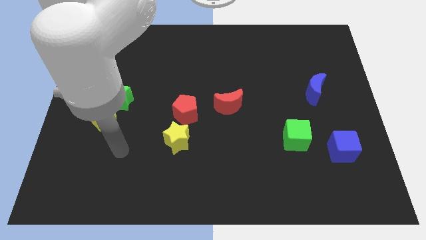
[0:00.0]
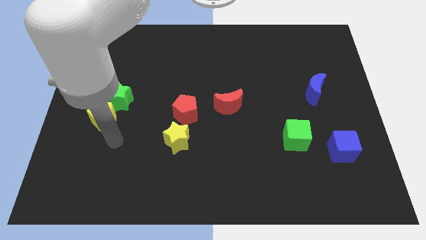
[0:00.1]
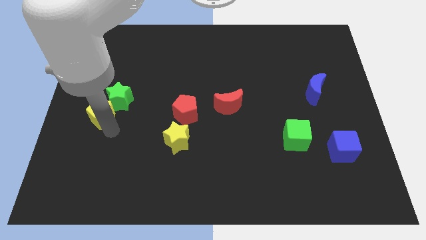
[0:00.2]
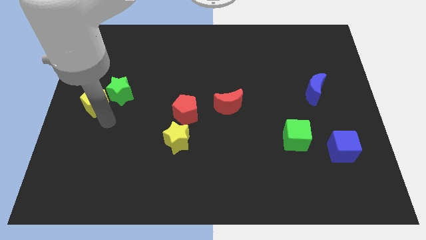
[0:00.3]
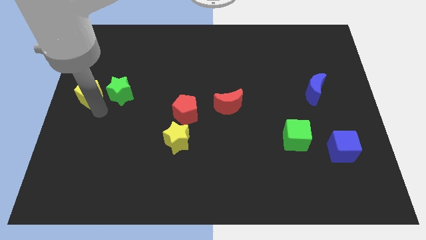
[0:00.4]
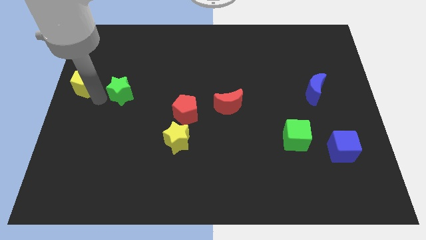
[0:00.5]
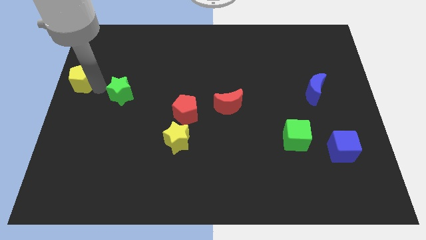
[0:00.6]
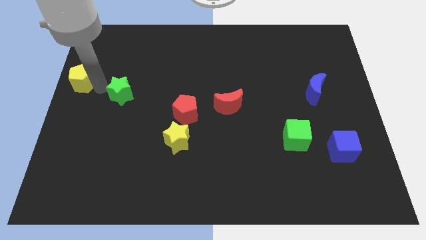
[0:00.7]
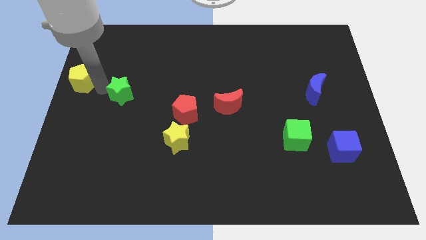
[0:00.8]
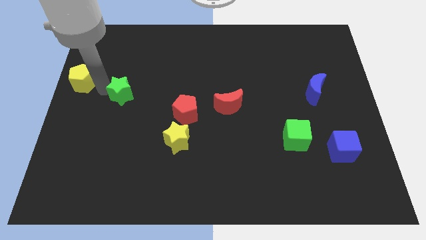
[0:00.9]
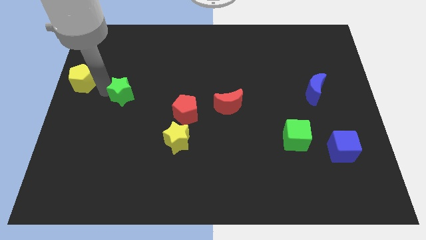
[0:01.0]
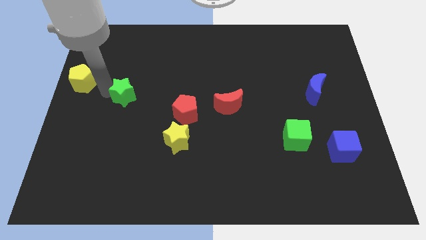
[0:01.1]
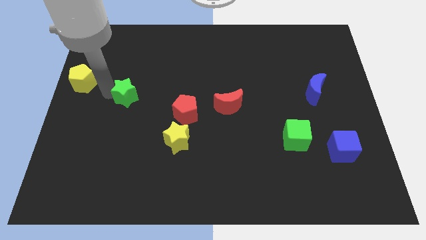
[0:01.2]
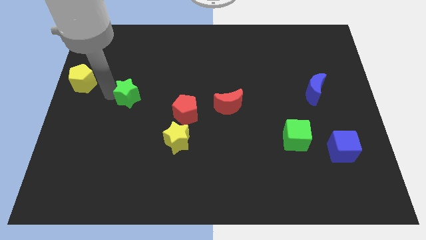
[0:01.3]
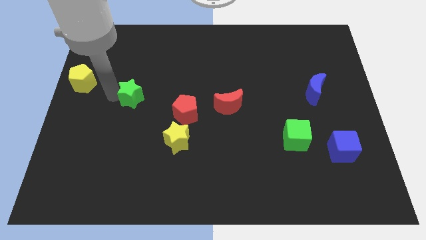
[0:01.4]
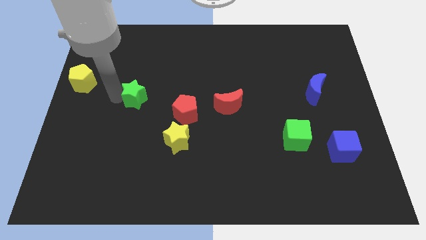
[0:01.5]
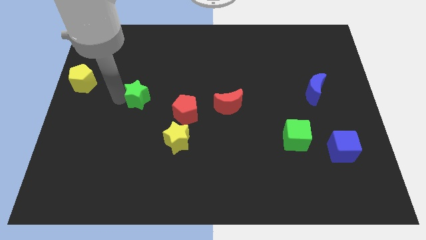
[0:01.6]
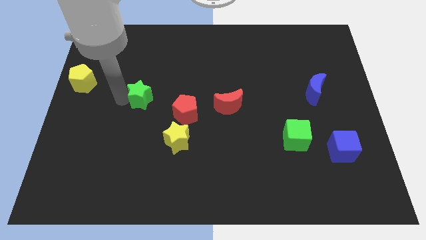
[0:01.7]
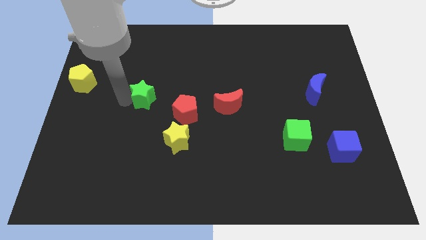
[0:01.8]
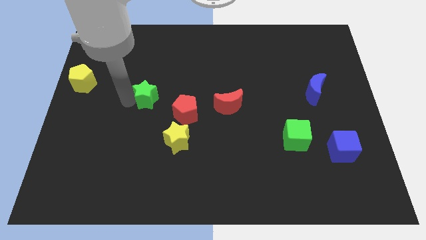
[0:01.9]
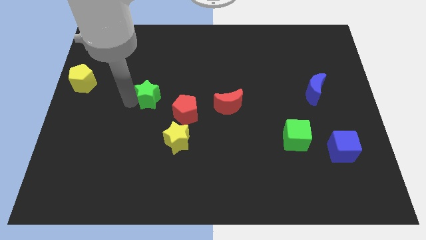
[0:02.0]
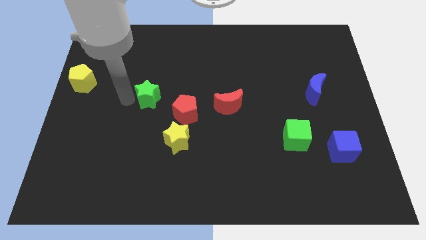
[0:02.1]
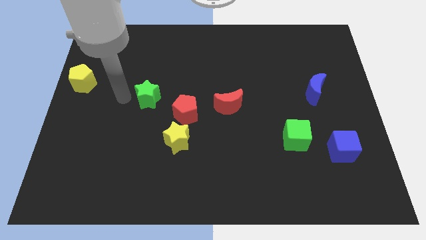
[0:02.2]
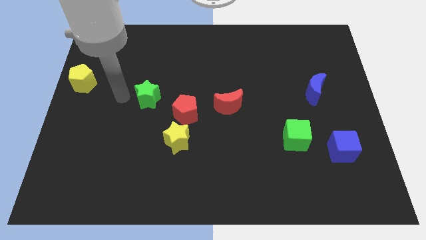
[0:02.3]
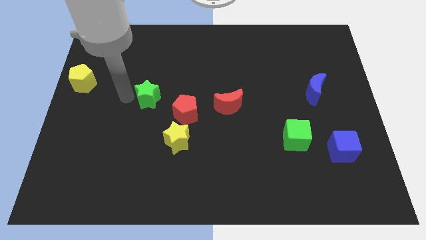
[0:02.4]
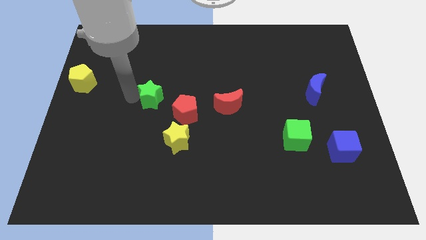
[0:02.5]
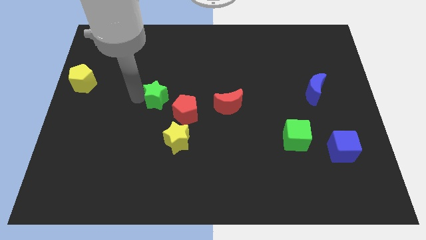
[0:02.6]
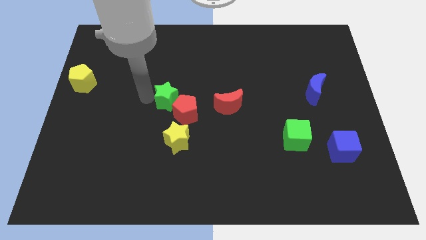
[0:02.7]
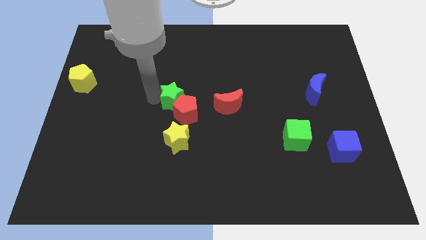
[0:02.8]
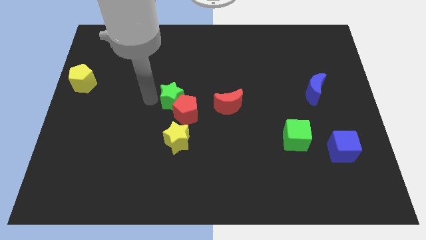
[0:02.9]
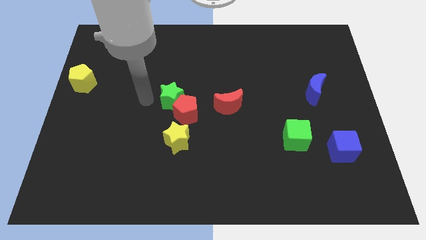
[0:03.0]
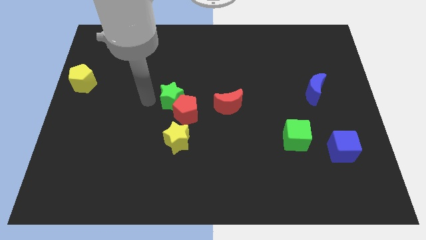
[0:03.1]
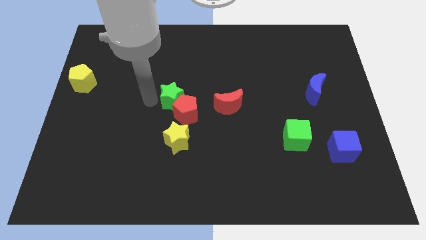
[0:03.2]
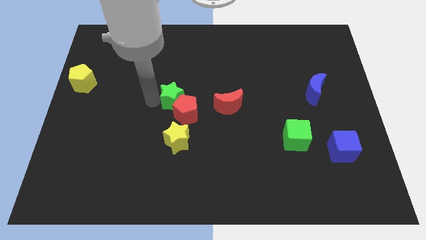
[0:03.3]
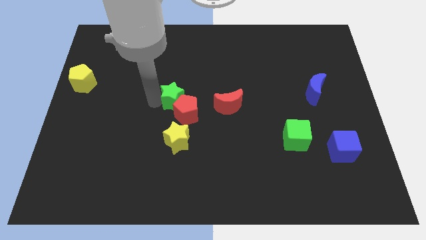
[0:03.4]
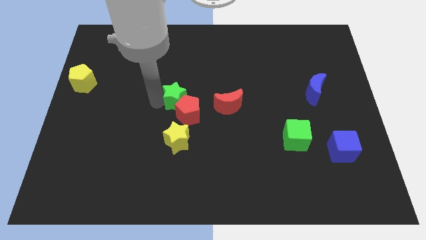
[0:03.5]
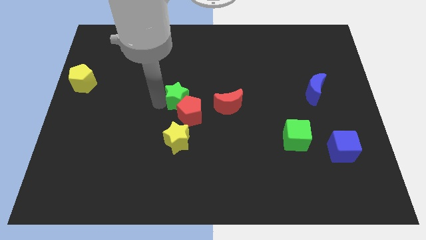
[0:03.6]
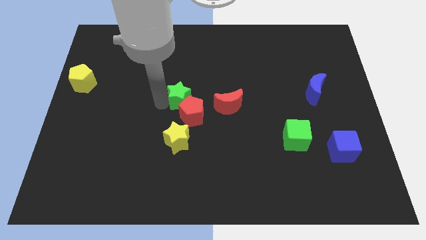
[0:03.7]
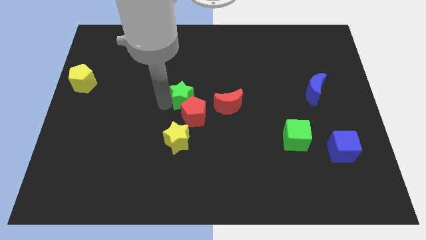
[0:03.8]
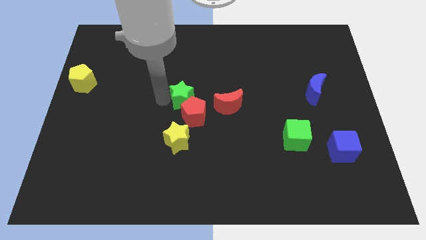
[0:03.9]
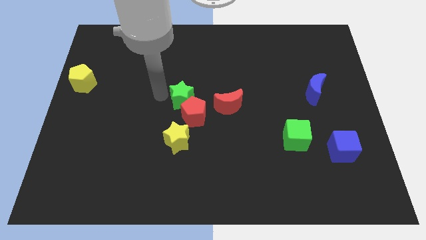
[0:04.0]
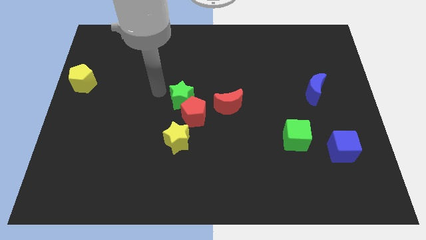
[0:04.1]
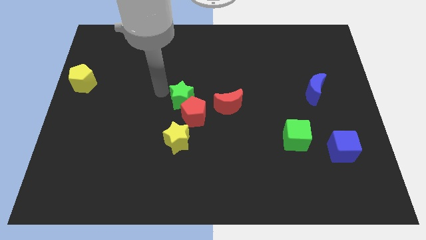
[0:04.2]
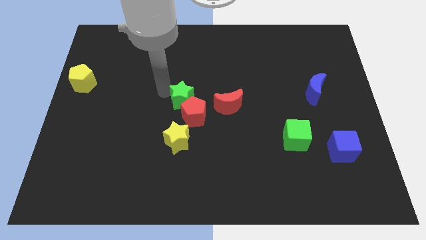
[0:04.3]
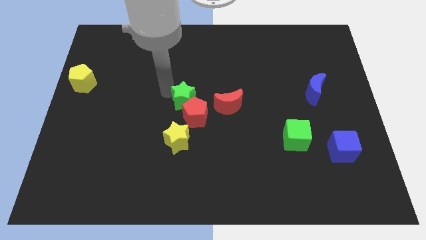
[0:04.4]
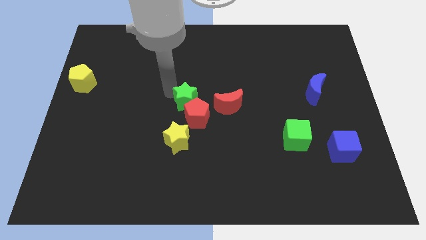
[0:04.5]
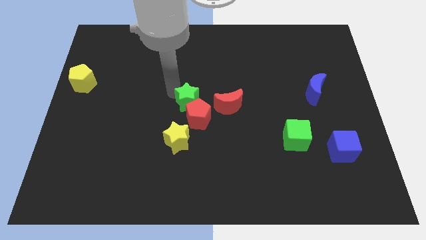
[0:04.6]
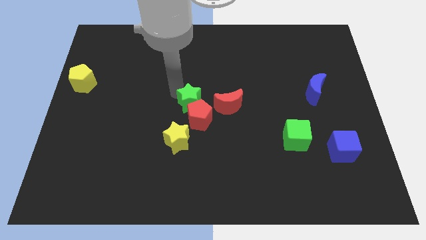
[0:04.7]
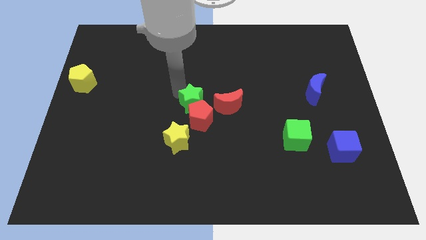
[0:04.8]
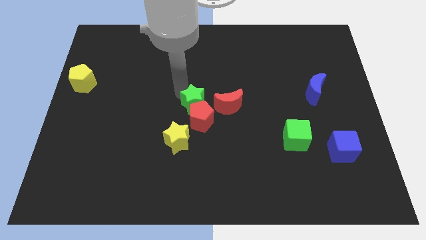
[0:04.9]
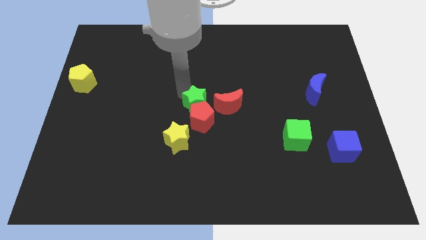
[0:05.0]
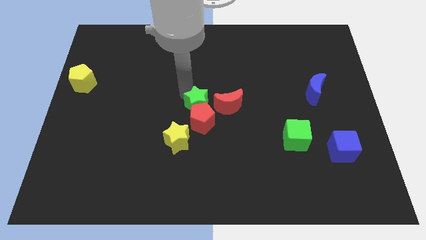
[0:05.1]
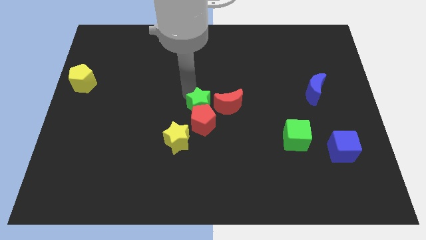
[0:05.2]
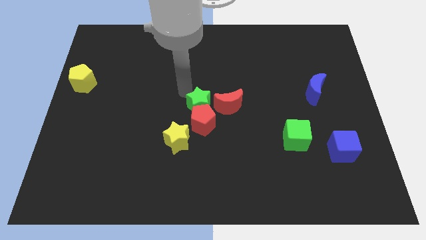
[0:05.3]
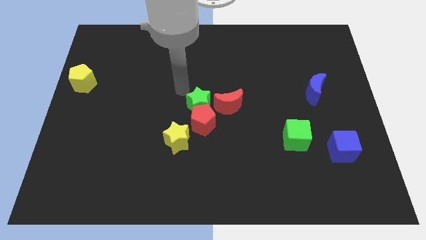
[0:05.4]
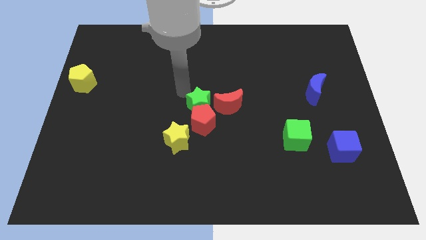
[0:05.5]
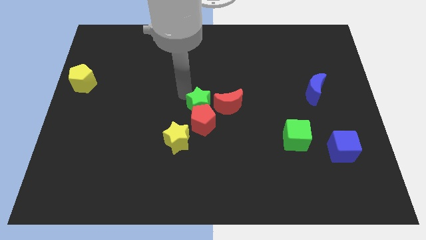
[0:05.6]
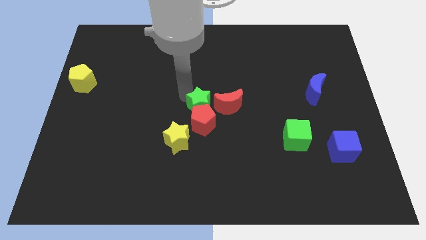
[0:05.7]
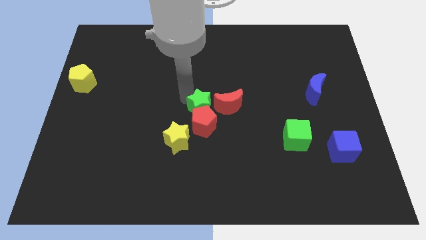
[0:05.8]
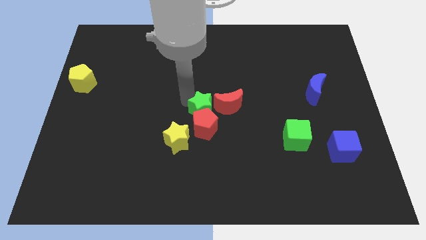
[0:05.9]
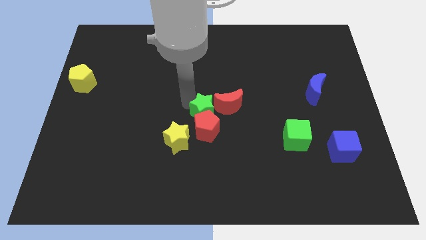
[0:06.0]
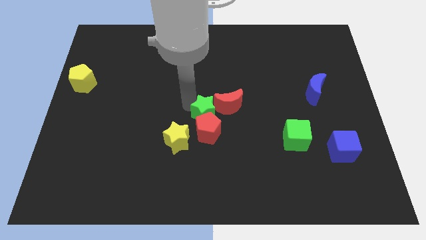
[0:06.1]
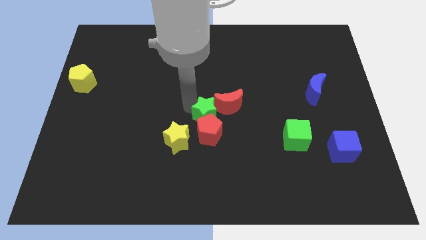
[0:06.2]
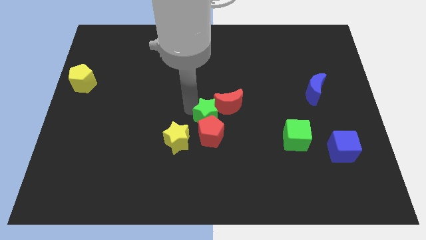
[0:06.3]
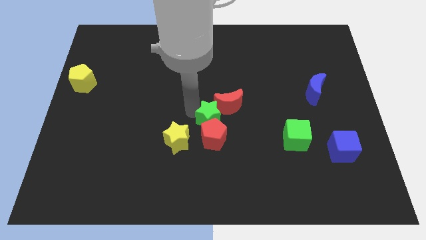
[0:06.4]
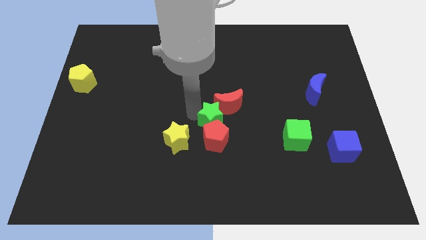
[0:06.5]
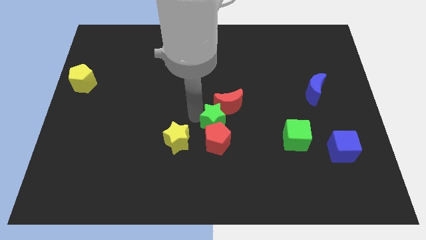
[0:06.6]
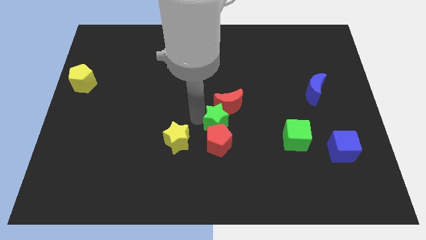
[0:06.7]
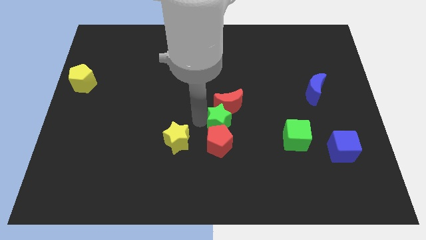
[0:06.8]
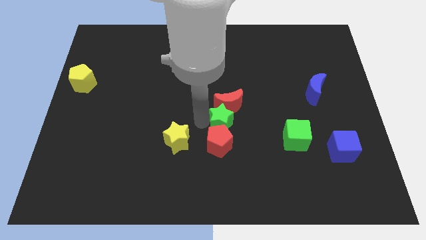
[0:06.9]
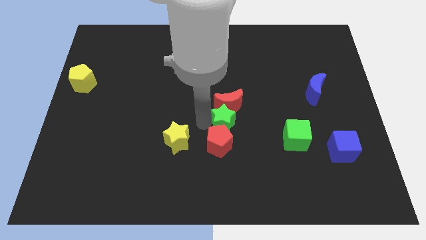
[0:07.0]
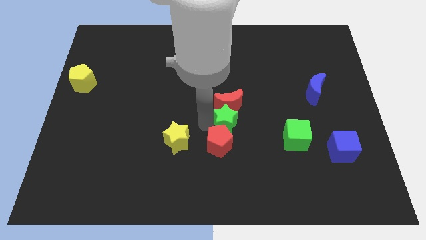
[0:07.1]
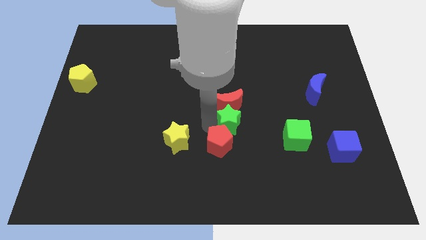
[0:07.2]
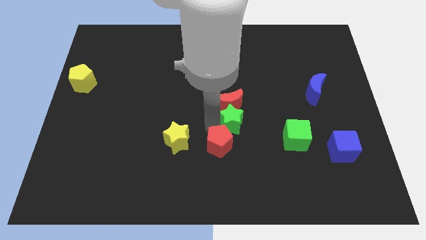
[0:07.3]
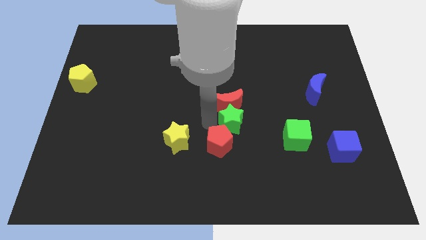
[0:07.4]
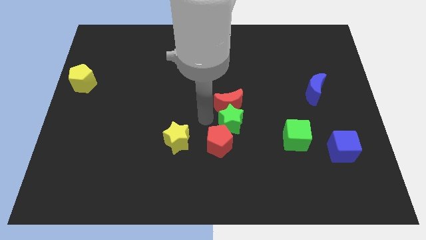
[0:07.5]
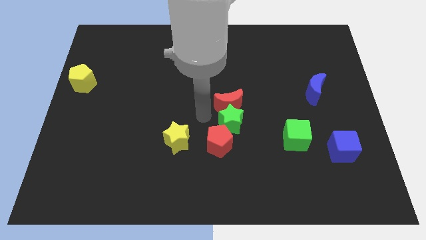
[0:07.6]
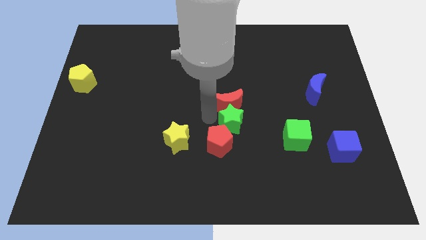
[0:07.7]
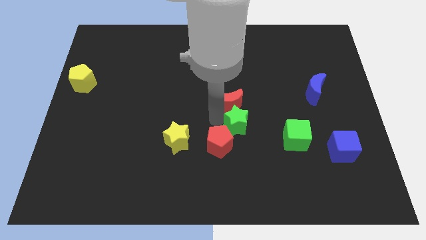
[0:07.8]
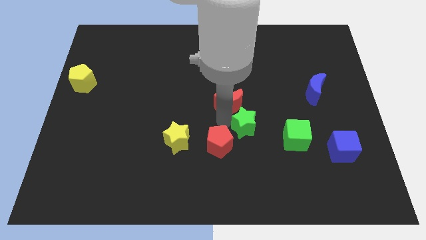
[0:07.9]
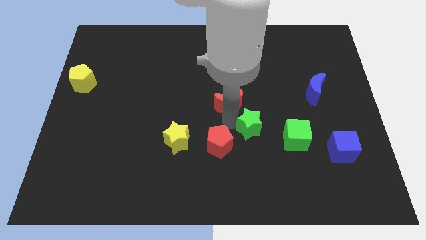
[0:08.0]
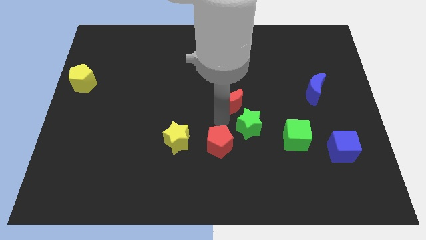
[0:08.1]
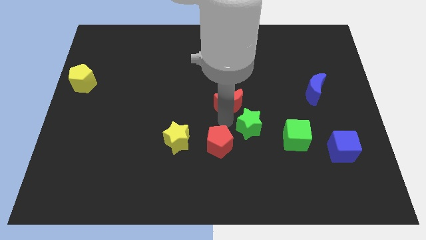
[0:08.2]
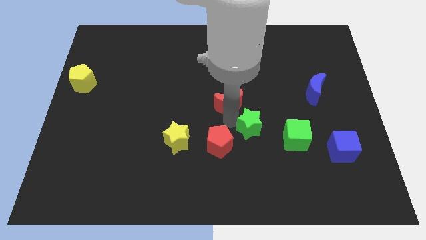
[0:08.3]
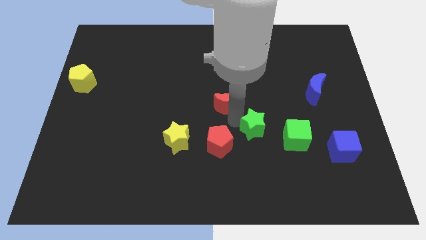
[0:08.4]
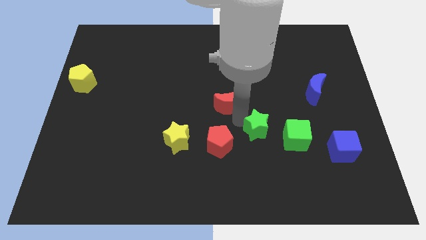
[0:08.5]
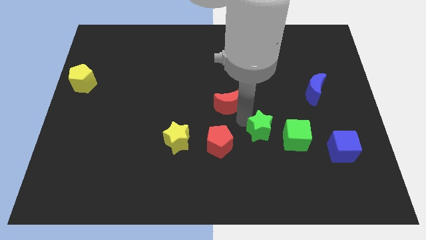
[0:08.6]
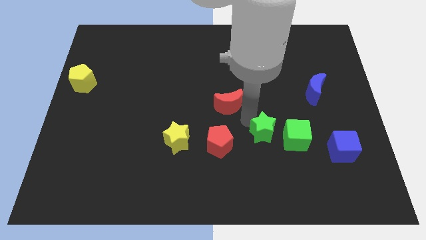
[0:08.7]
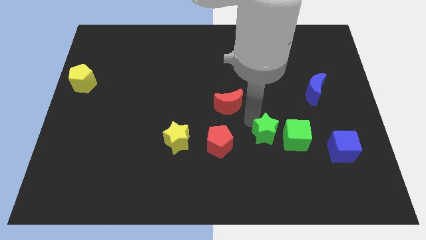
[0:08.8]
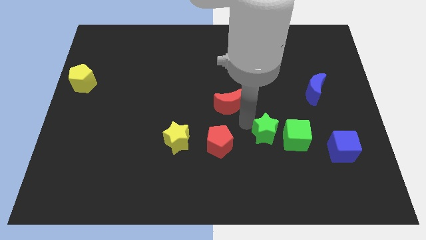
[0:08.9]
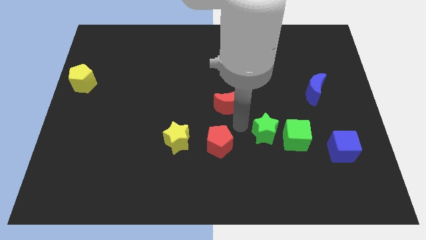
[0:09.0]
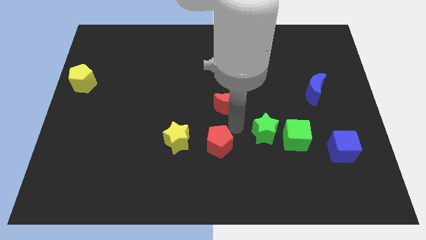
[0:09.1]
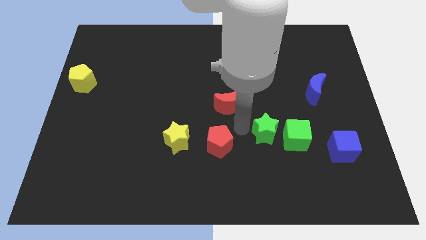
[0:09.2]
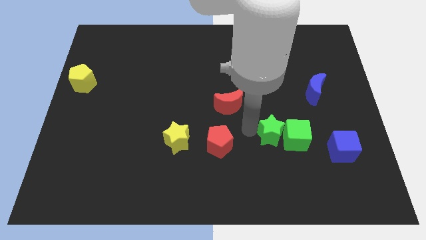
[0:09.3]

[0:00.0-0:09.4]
move the green star to the green cube
